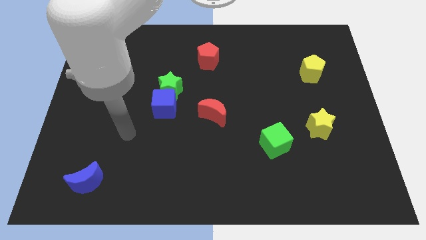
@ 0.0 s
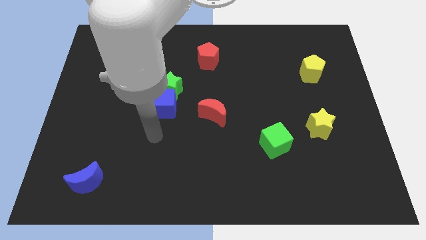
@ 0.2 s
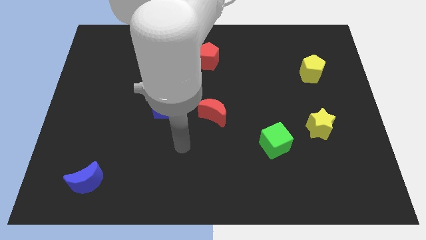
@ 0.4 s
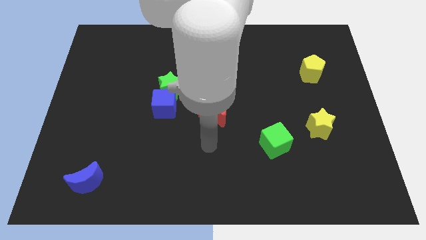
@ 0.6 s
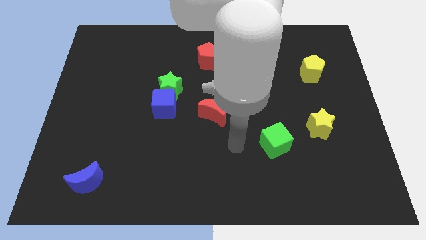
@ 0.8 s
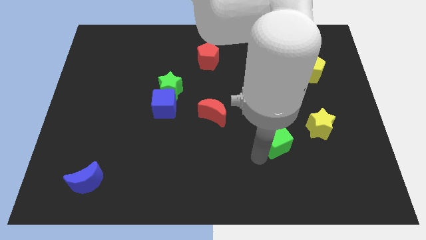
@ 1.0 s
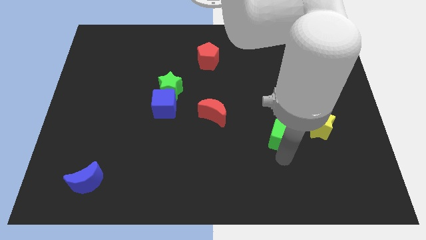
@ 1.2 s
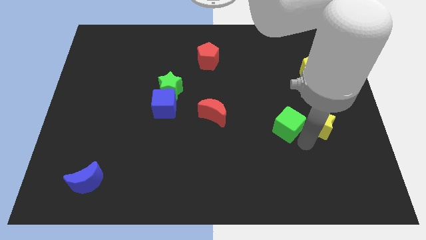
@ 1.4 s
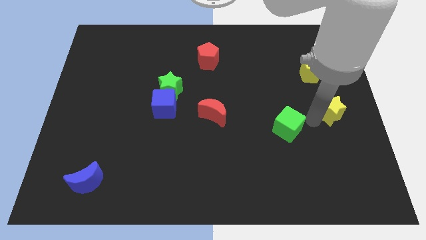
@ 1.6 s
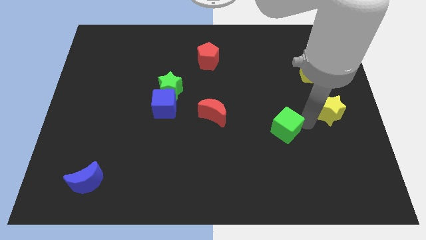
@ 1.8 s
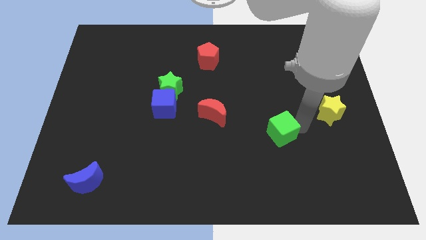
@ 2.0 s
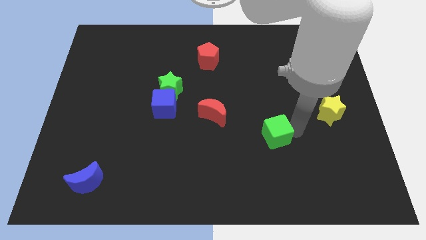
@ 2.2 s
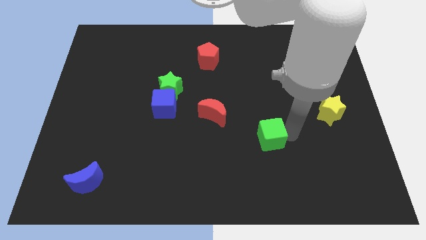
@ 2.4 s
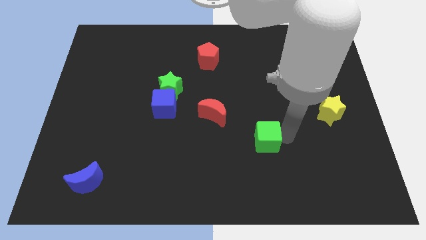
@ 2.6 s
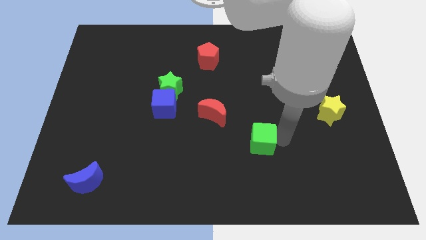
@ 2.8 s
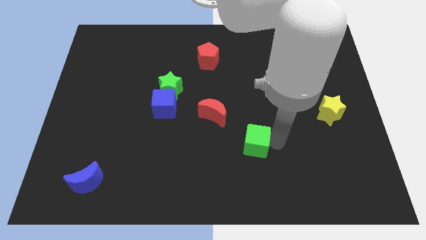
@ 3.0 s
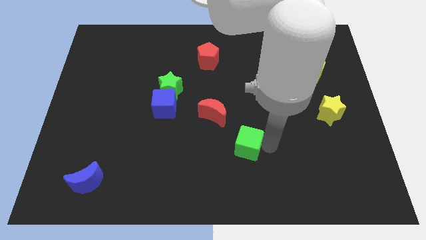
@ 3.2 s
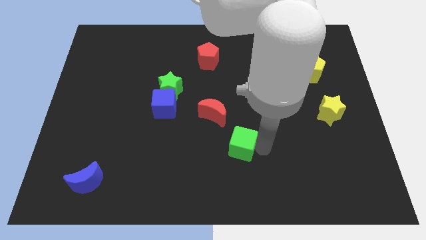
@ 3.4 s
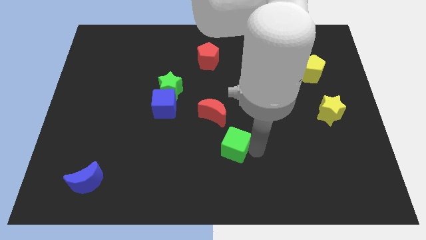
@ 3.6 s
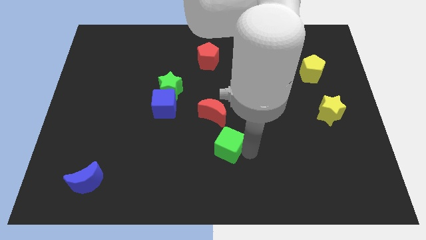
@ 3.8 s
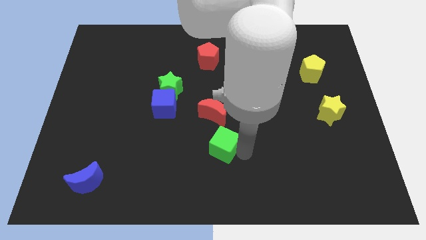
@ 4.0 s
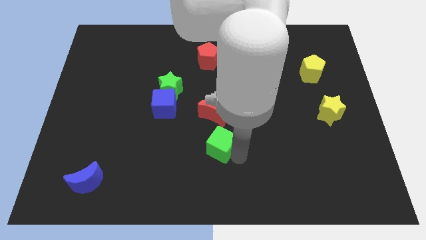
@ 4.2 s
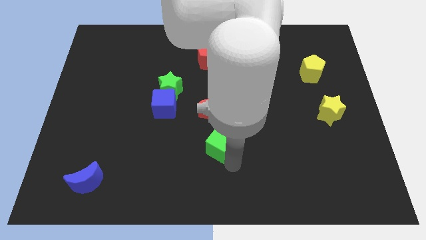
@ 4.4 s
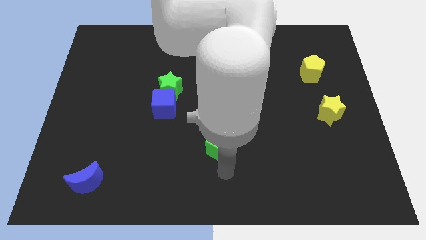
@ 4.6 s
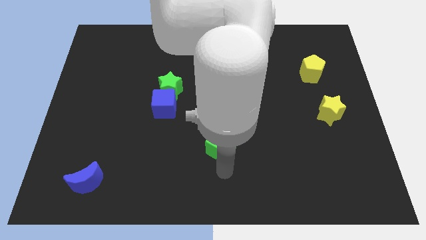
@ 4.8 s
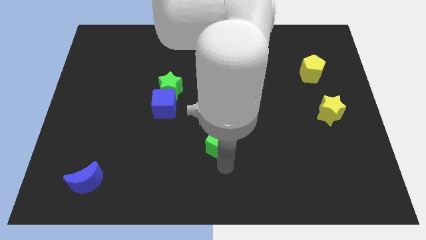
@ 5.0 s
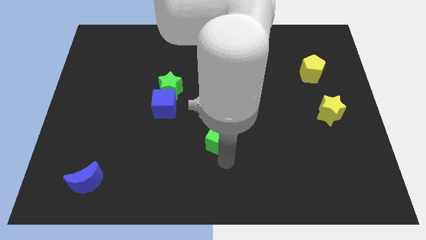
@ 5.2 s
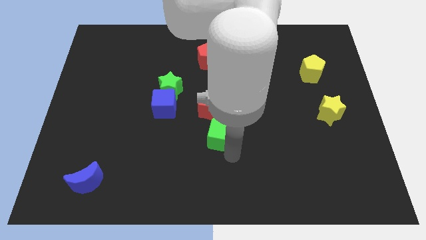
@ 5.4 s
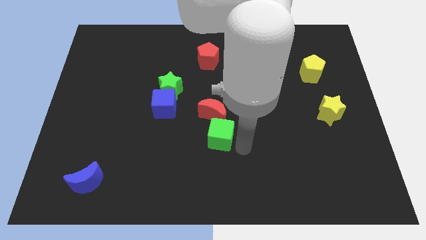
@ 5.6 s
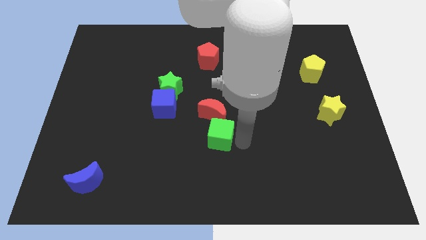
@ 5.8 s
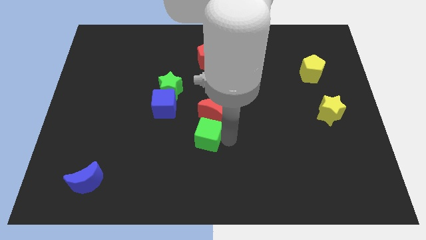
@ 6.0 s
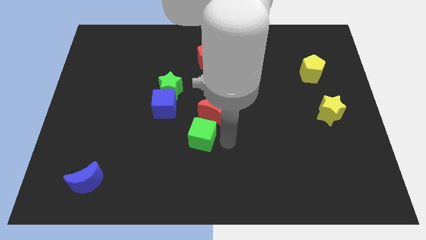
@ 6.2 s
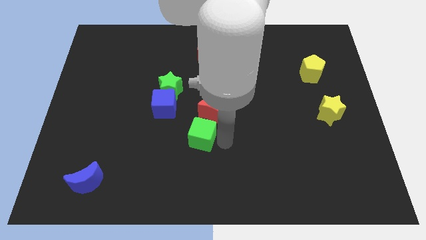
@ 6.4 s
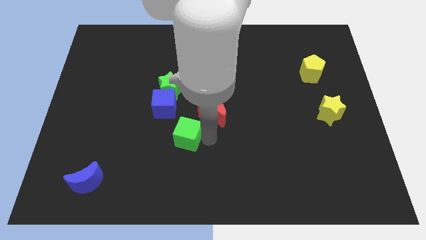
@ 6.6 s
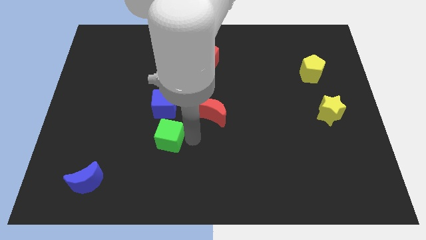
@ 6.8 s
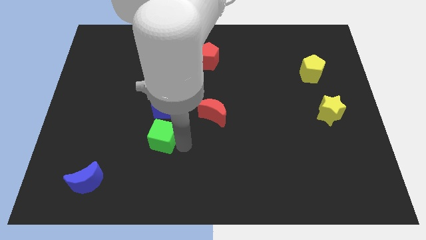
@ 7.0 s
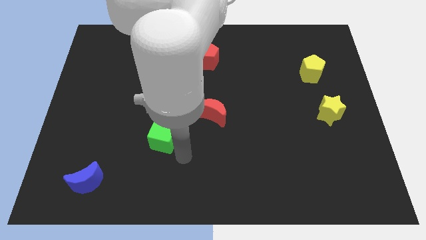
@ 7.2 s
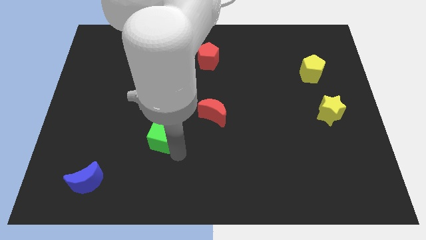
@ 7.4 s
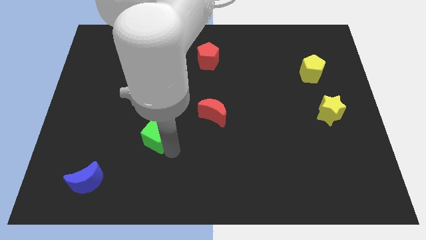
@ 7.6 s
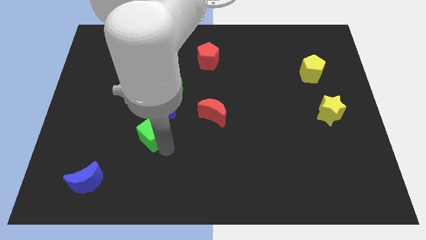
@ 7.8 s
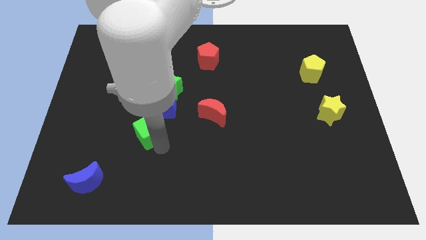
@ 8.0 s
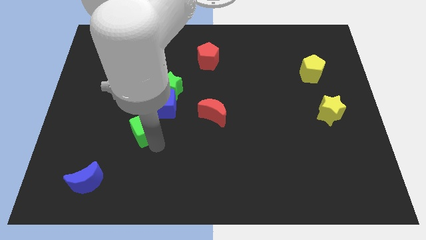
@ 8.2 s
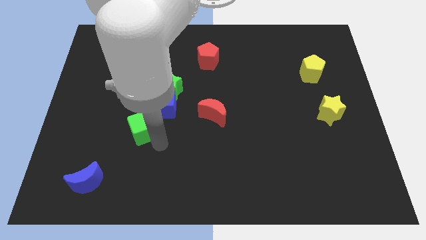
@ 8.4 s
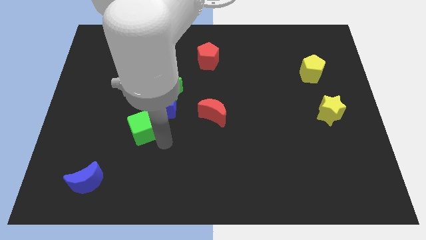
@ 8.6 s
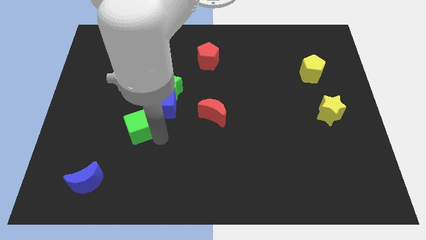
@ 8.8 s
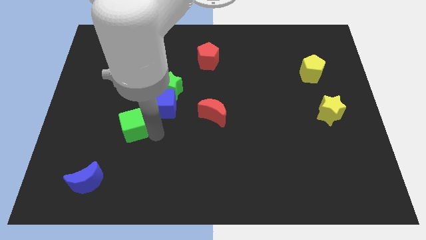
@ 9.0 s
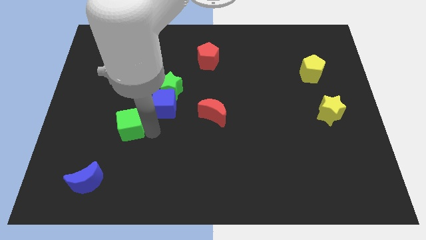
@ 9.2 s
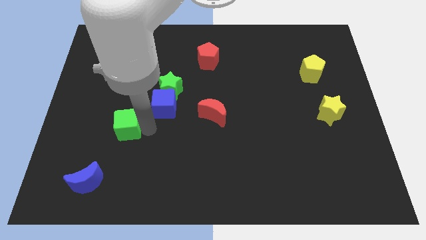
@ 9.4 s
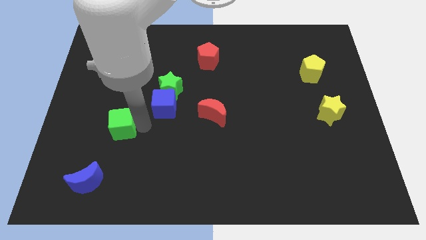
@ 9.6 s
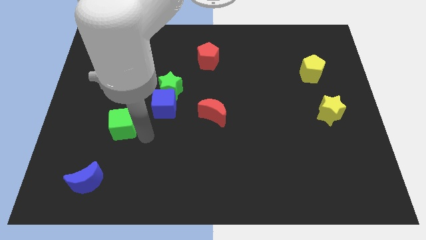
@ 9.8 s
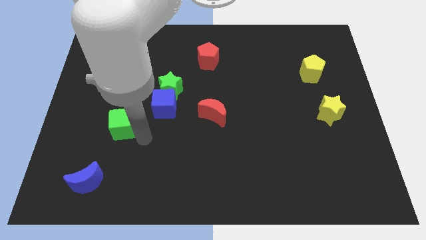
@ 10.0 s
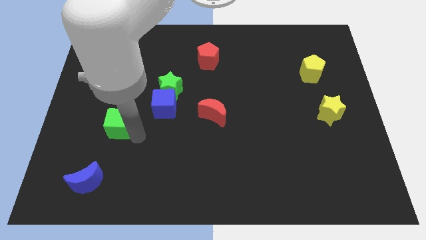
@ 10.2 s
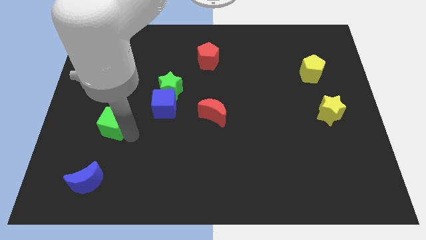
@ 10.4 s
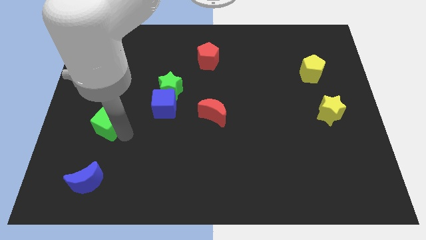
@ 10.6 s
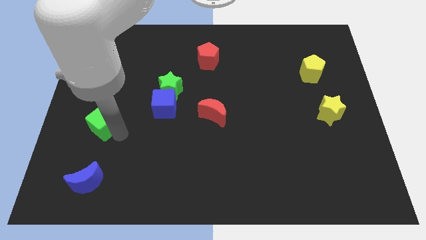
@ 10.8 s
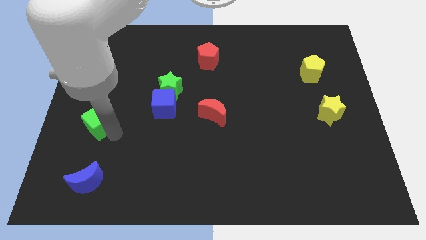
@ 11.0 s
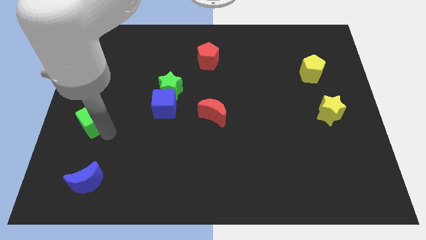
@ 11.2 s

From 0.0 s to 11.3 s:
slide the green cube to the left side of the board
